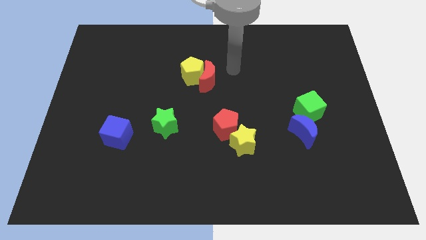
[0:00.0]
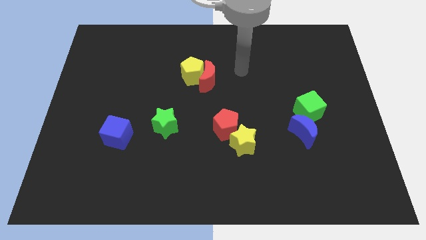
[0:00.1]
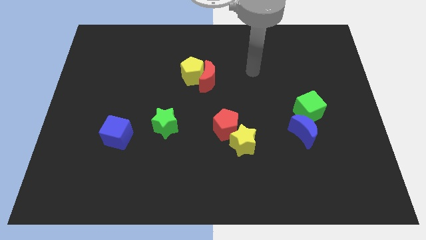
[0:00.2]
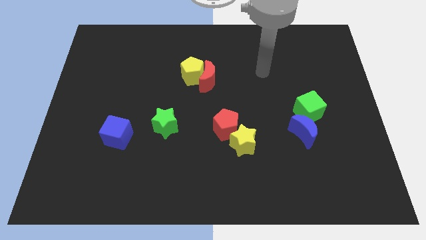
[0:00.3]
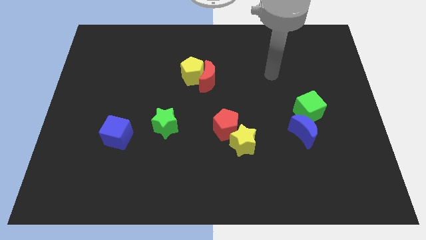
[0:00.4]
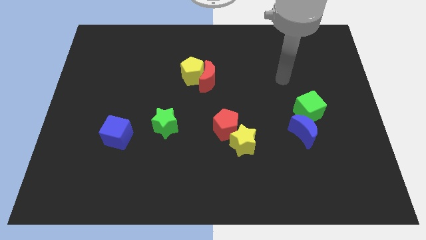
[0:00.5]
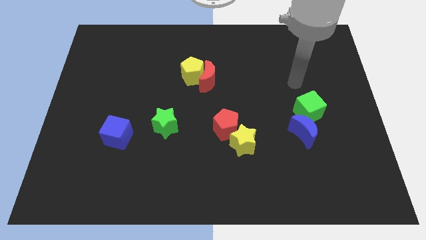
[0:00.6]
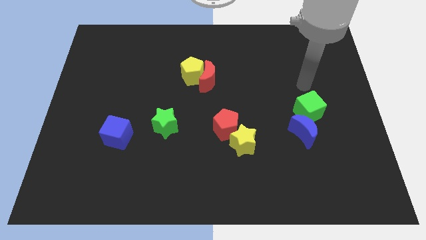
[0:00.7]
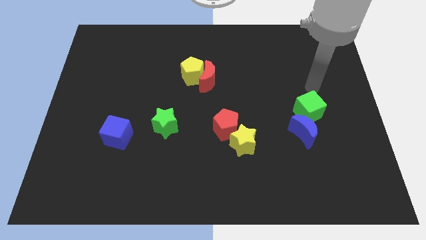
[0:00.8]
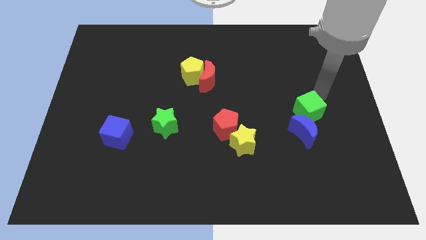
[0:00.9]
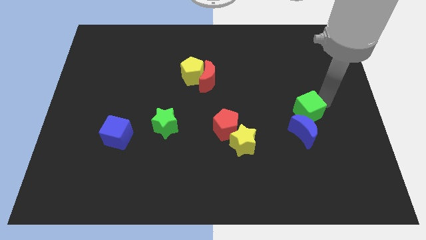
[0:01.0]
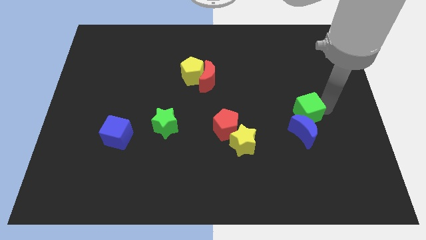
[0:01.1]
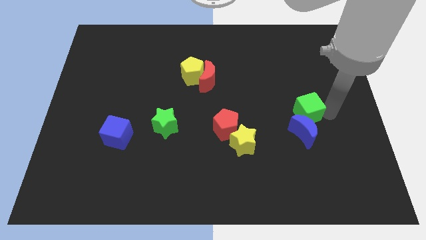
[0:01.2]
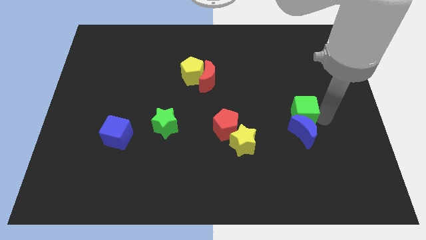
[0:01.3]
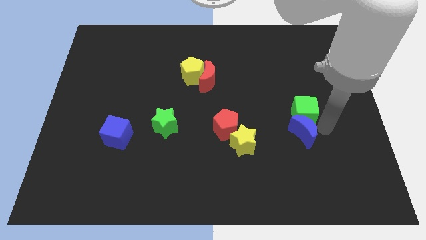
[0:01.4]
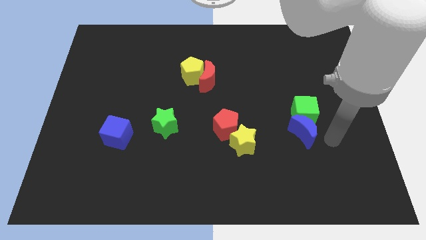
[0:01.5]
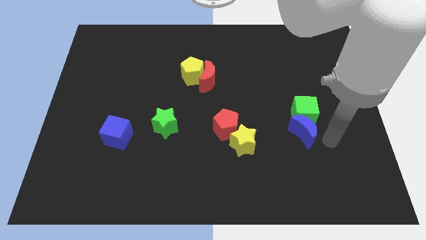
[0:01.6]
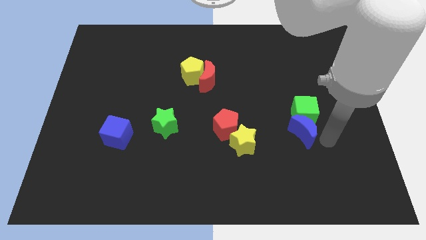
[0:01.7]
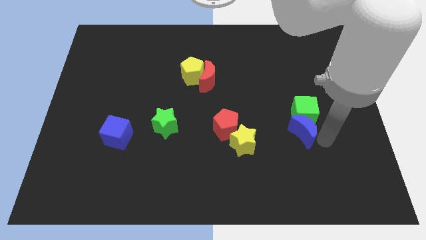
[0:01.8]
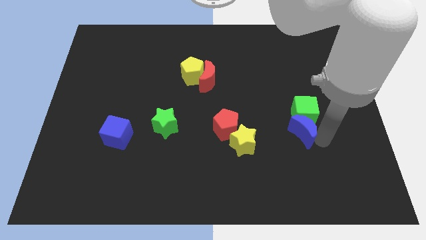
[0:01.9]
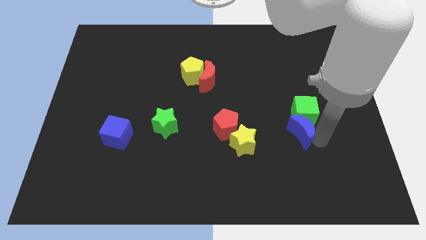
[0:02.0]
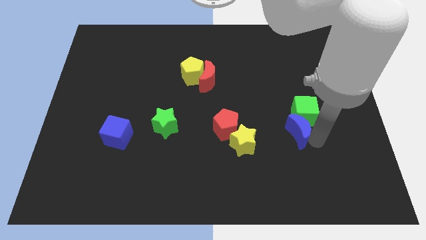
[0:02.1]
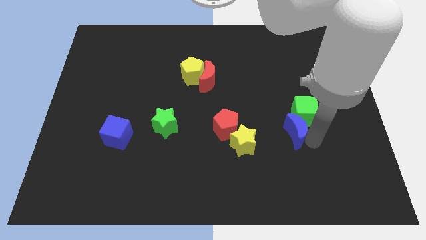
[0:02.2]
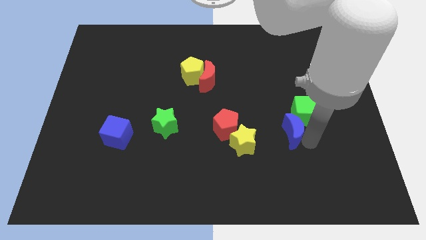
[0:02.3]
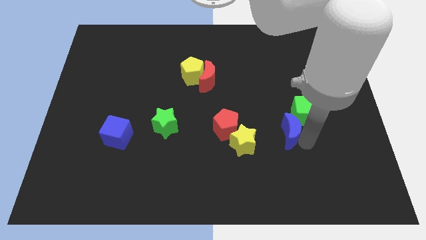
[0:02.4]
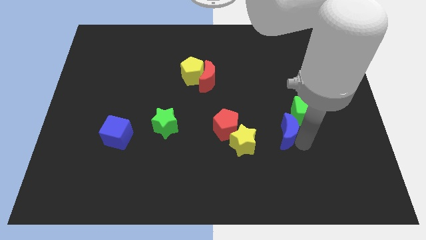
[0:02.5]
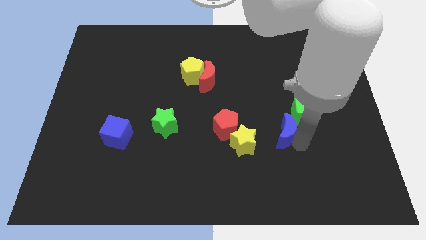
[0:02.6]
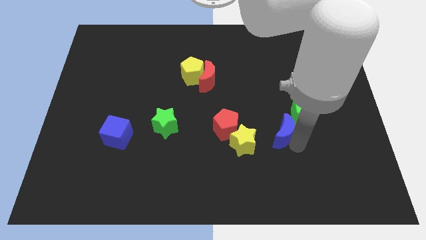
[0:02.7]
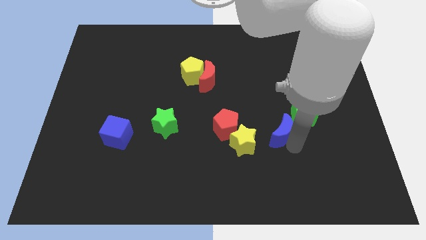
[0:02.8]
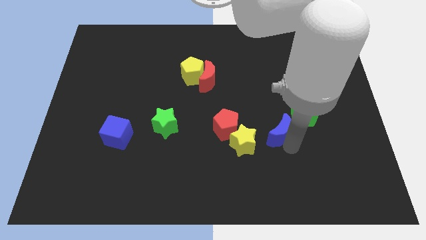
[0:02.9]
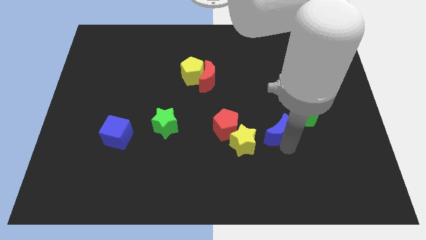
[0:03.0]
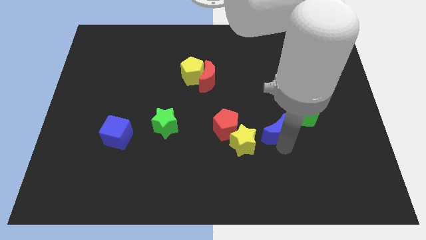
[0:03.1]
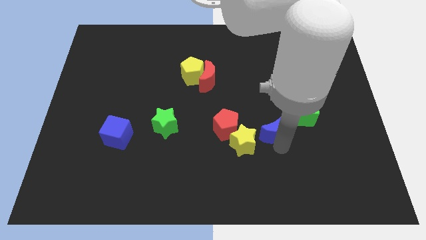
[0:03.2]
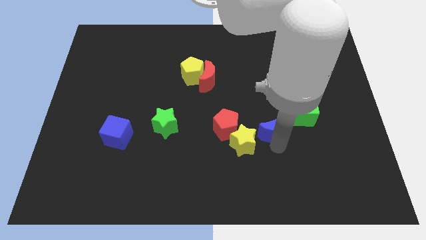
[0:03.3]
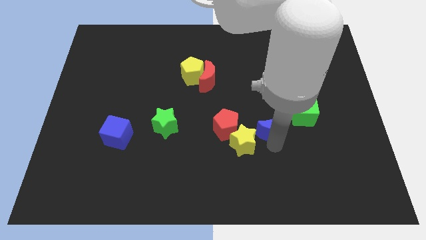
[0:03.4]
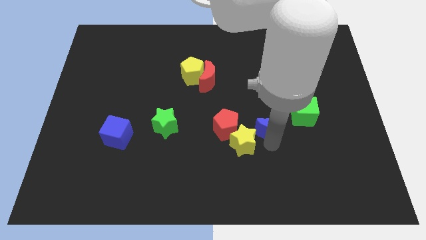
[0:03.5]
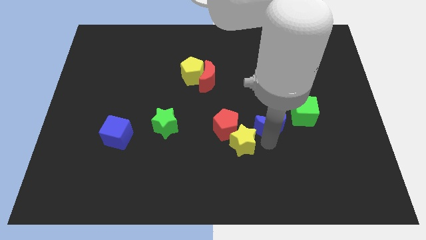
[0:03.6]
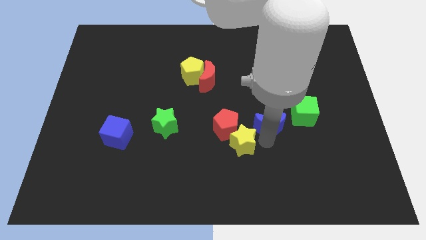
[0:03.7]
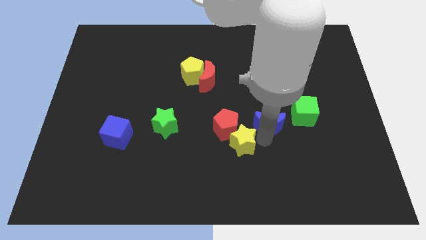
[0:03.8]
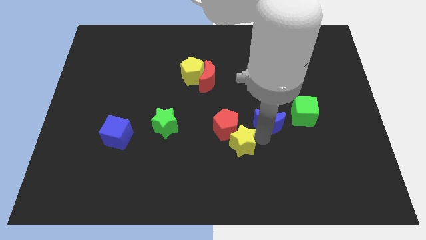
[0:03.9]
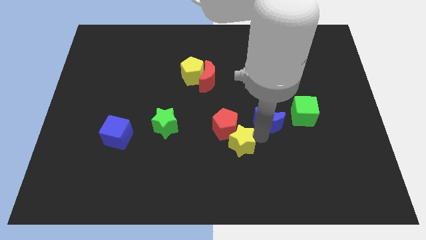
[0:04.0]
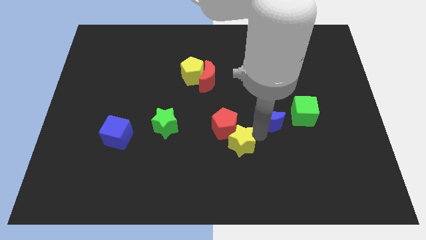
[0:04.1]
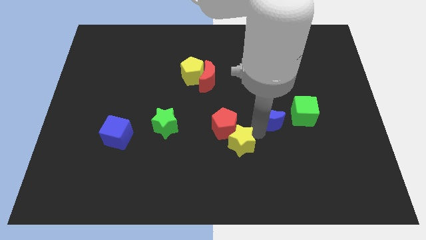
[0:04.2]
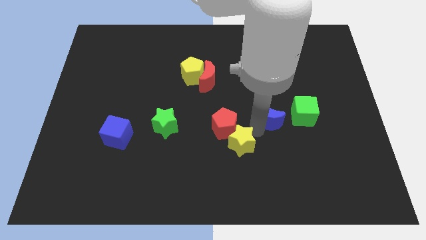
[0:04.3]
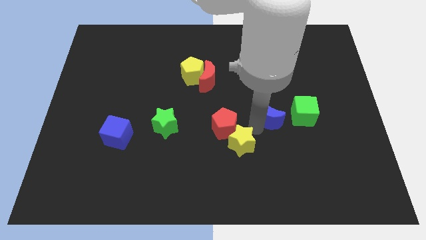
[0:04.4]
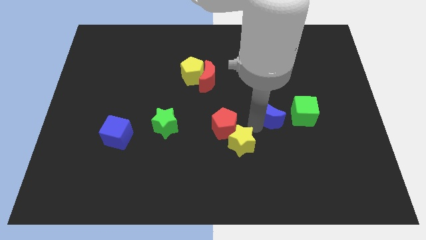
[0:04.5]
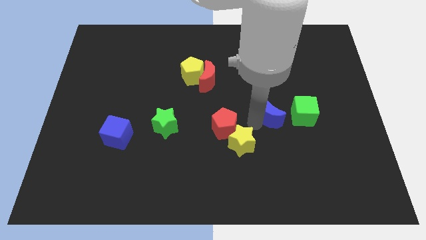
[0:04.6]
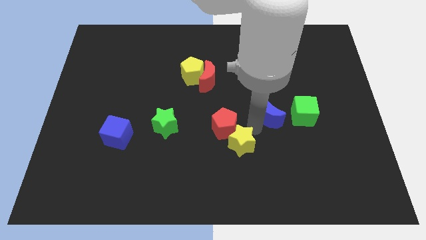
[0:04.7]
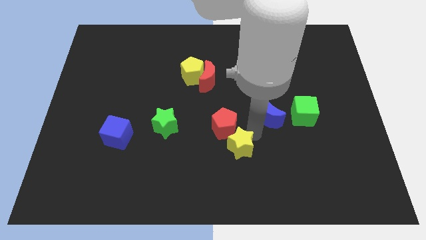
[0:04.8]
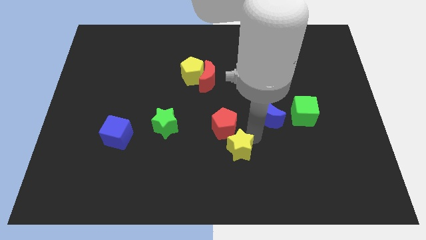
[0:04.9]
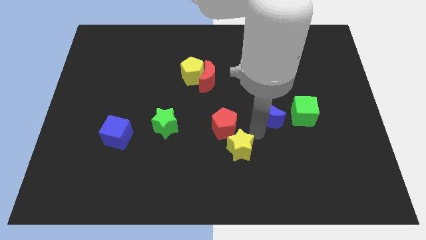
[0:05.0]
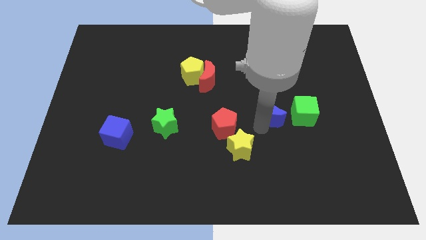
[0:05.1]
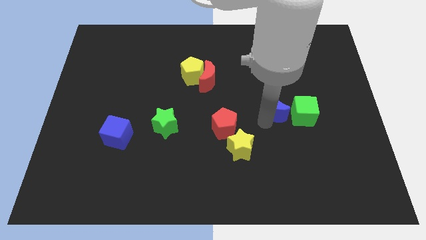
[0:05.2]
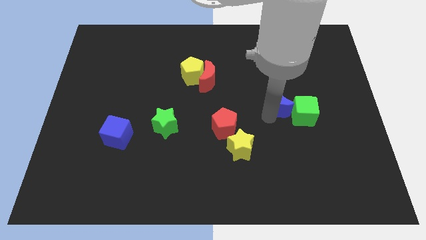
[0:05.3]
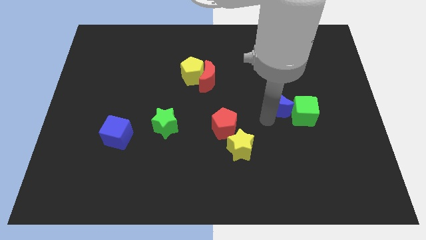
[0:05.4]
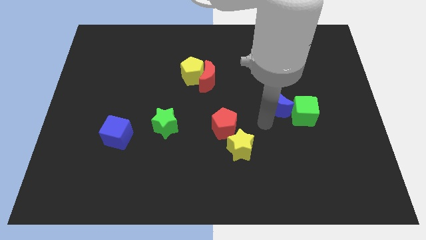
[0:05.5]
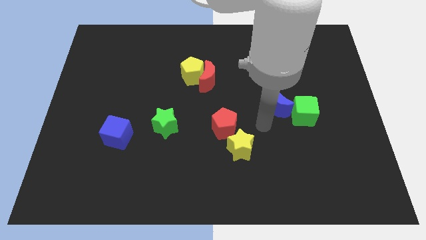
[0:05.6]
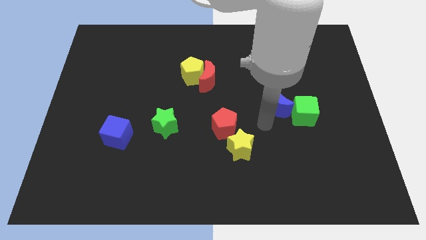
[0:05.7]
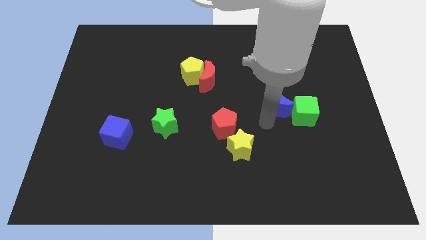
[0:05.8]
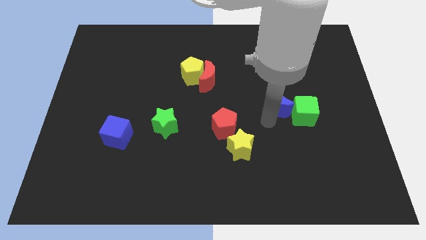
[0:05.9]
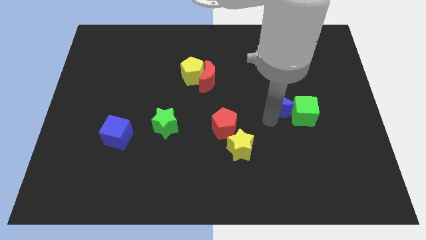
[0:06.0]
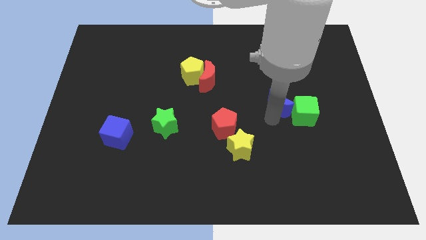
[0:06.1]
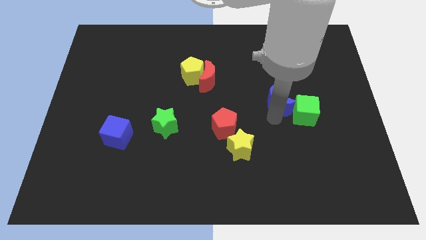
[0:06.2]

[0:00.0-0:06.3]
move the blue moon upwards a little

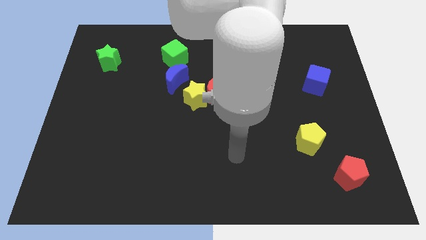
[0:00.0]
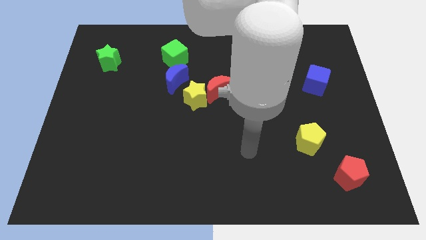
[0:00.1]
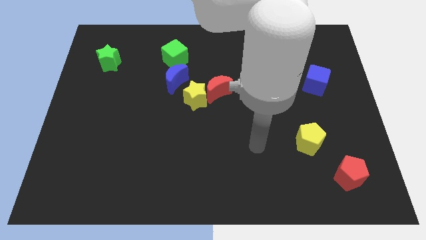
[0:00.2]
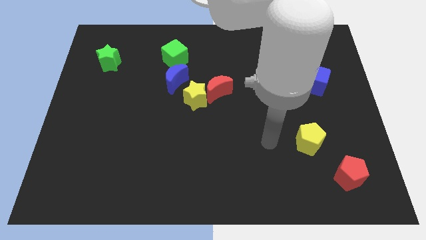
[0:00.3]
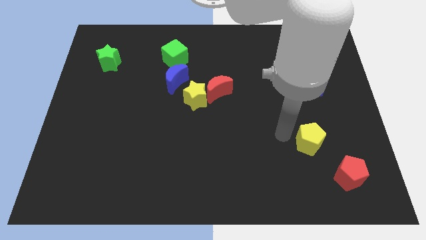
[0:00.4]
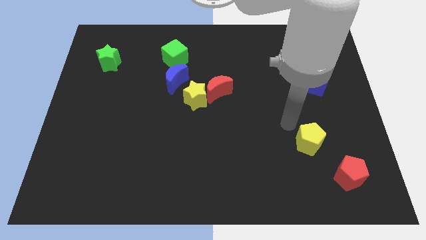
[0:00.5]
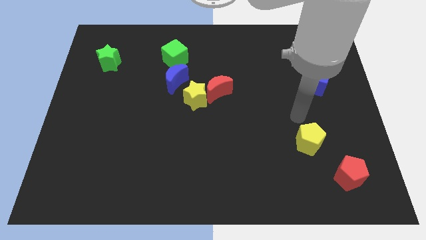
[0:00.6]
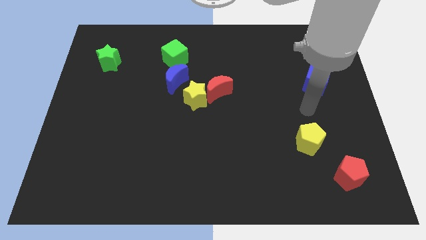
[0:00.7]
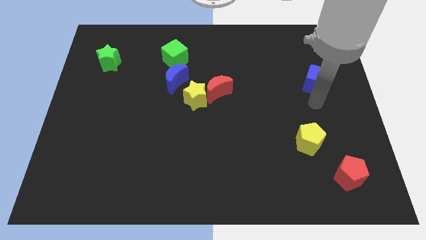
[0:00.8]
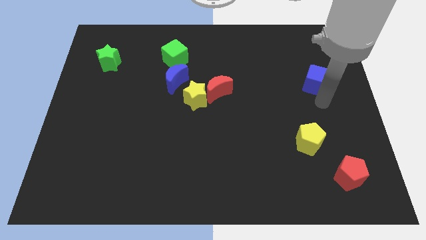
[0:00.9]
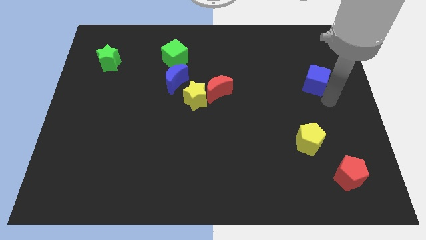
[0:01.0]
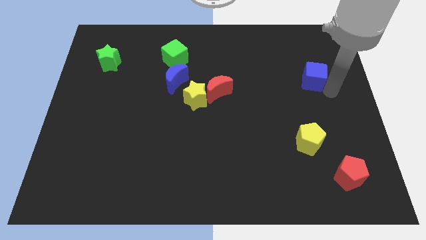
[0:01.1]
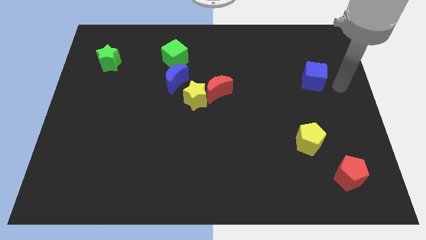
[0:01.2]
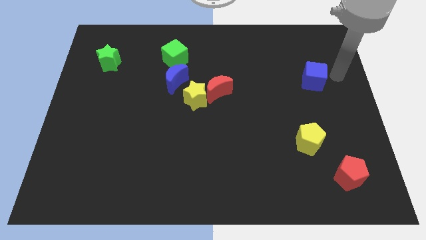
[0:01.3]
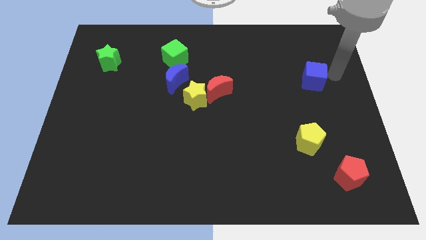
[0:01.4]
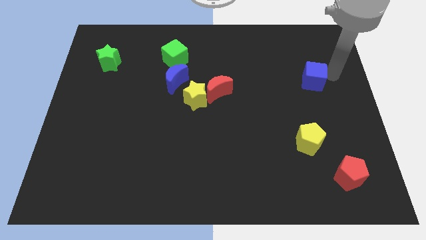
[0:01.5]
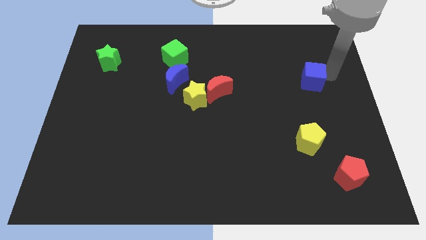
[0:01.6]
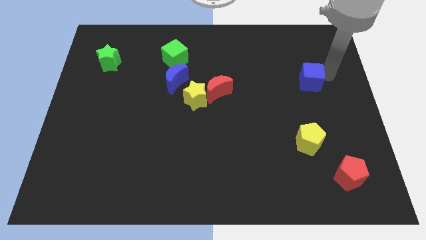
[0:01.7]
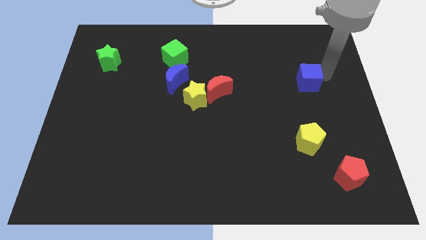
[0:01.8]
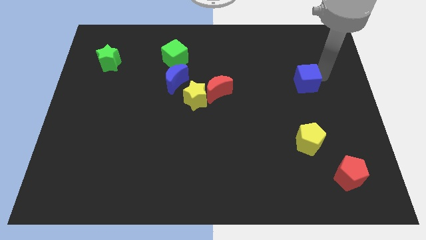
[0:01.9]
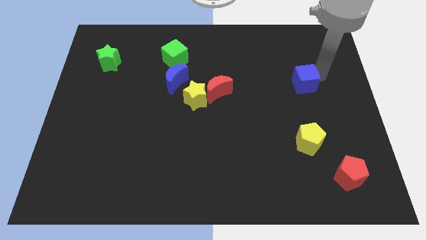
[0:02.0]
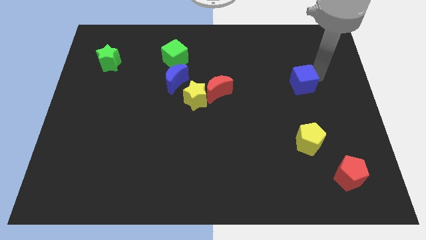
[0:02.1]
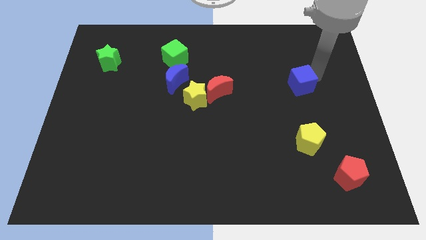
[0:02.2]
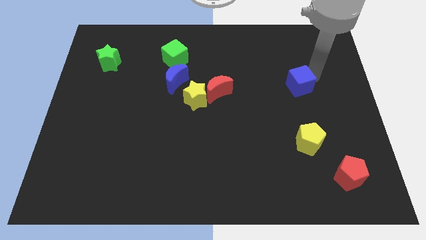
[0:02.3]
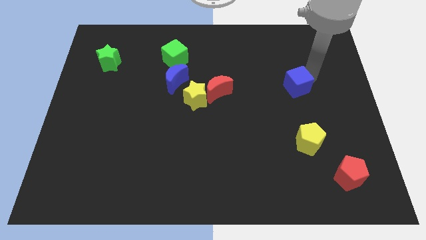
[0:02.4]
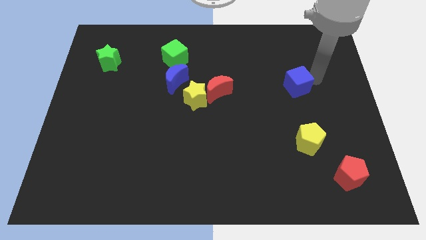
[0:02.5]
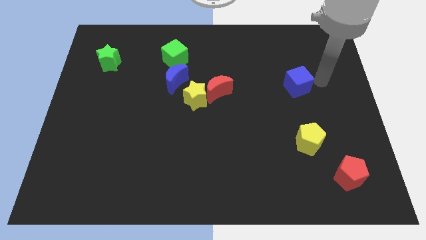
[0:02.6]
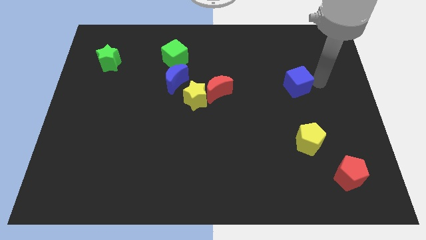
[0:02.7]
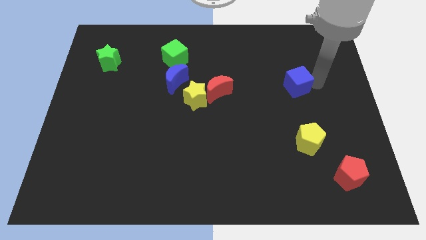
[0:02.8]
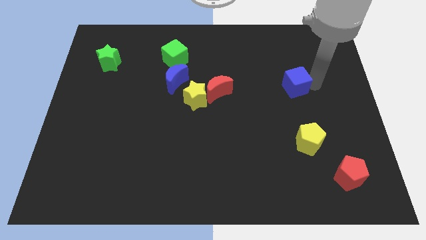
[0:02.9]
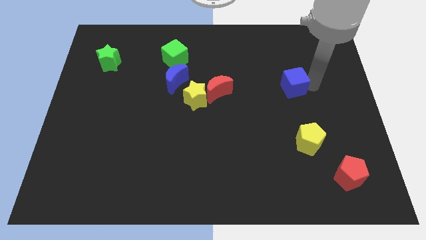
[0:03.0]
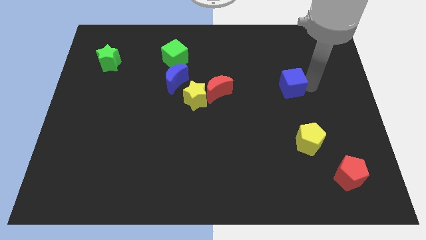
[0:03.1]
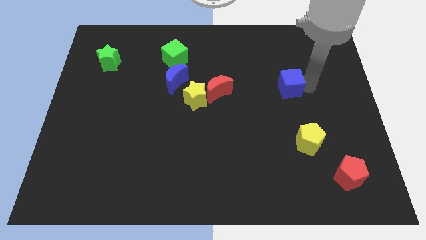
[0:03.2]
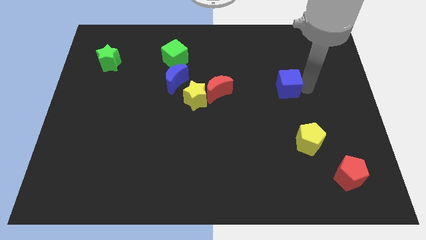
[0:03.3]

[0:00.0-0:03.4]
push the blue cube to the left a little bit
